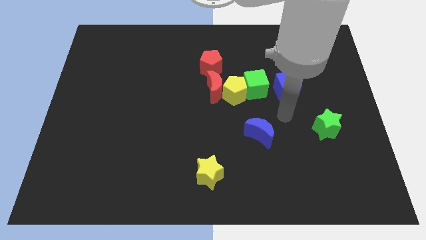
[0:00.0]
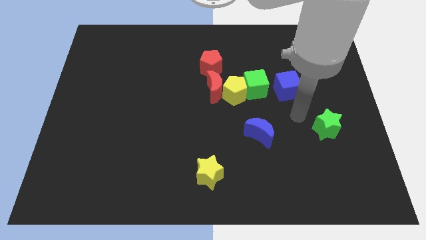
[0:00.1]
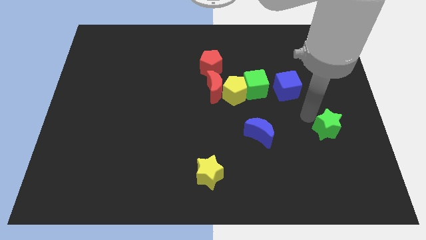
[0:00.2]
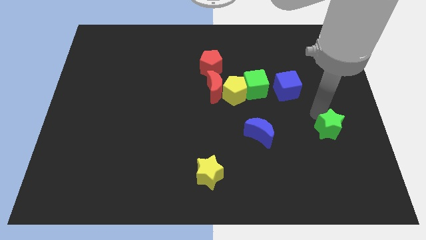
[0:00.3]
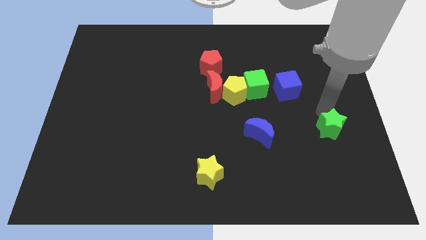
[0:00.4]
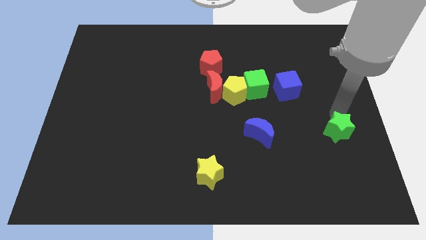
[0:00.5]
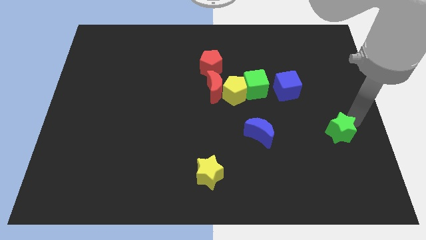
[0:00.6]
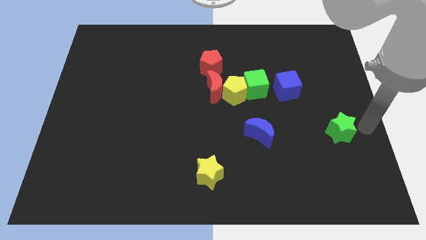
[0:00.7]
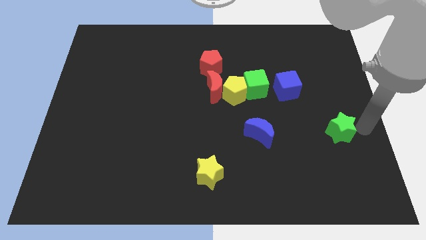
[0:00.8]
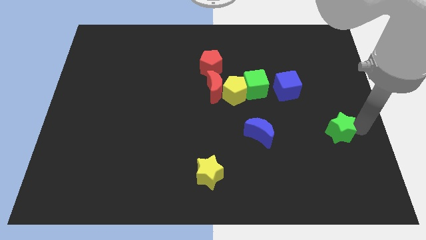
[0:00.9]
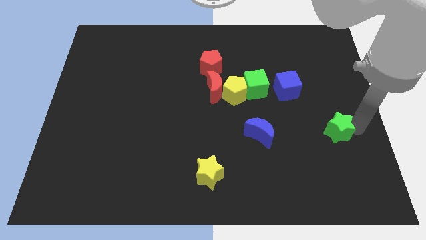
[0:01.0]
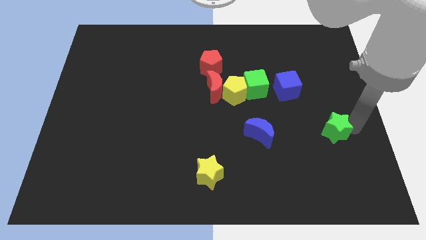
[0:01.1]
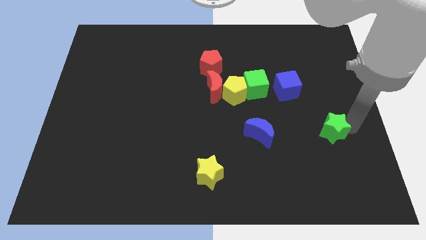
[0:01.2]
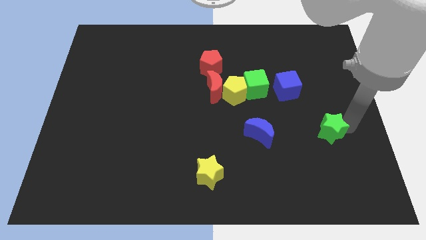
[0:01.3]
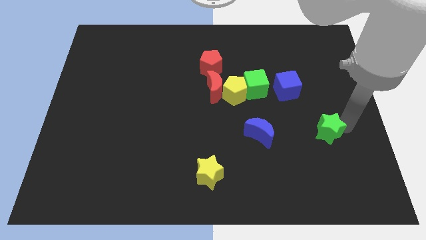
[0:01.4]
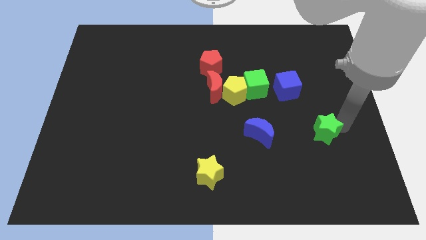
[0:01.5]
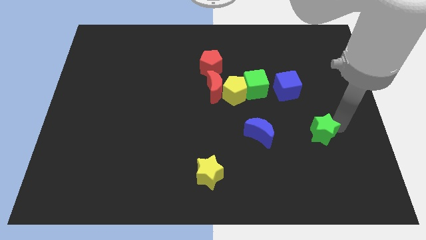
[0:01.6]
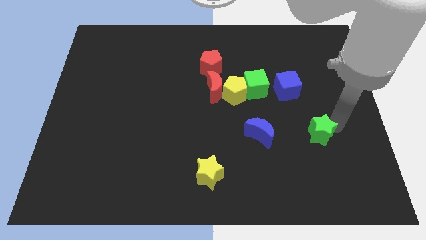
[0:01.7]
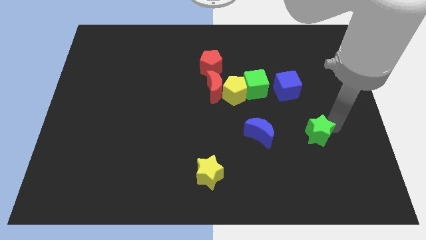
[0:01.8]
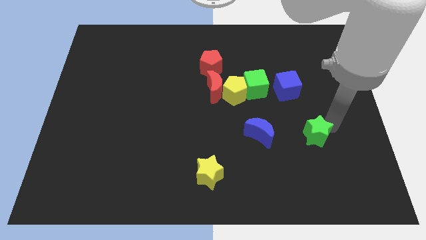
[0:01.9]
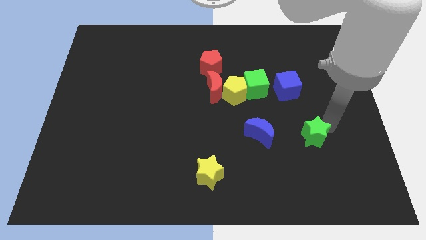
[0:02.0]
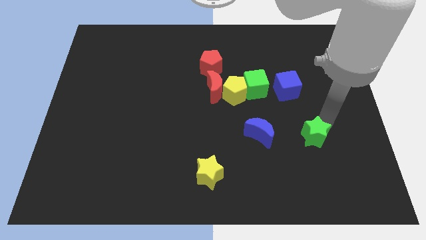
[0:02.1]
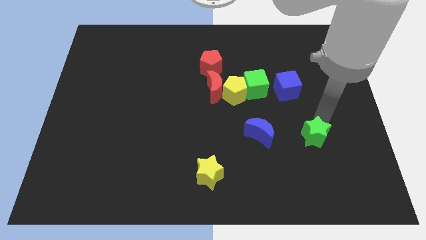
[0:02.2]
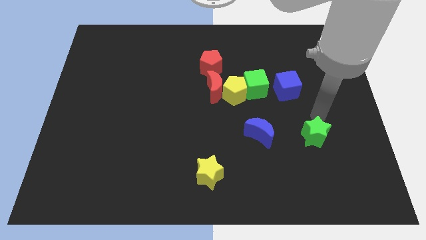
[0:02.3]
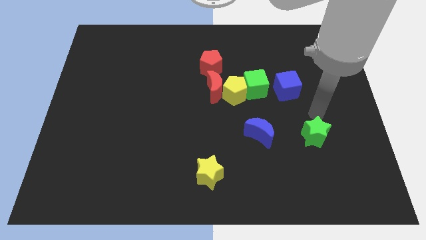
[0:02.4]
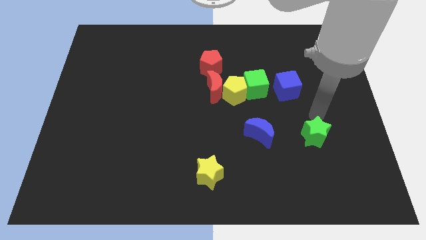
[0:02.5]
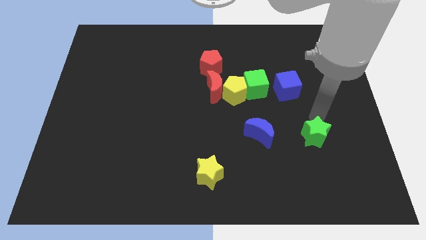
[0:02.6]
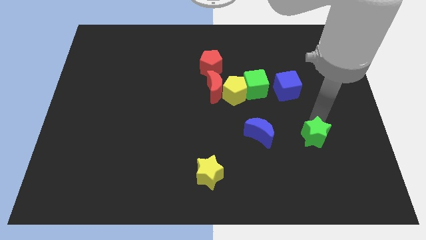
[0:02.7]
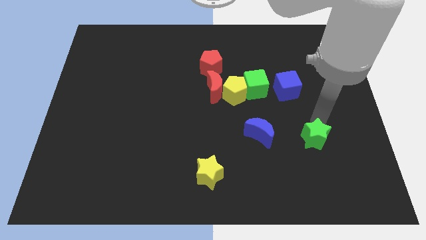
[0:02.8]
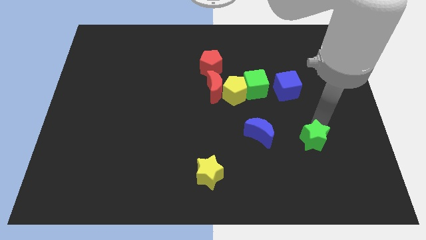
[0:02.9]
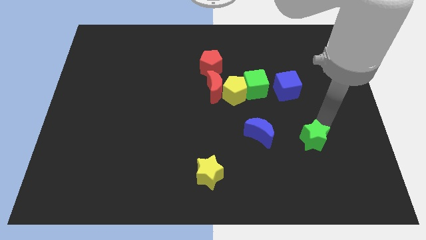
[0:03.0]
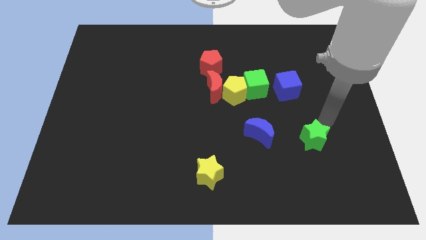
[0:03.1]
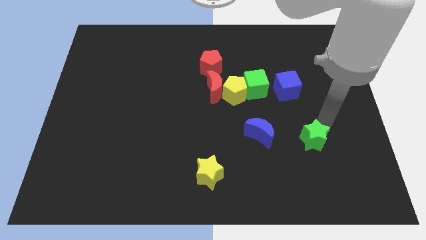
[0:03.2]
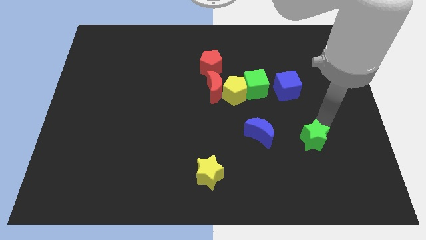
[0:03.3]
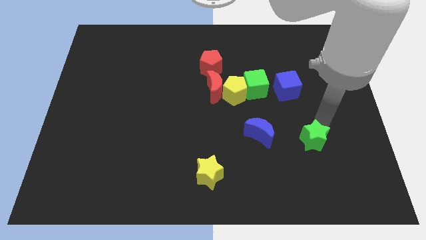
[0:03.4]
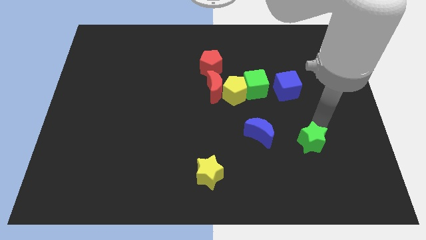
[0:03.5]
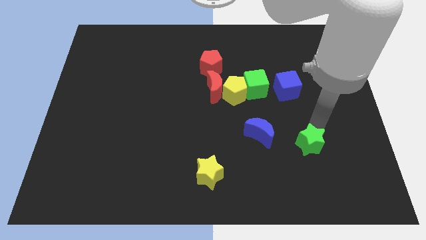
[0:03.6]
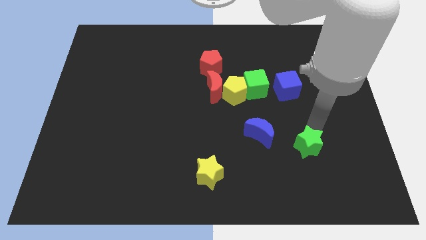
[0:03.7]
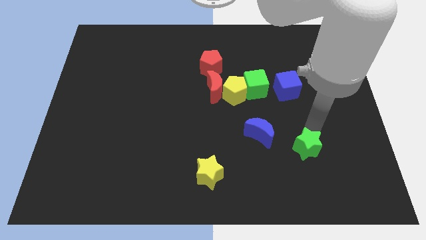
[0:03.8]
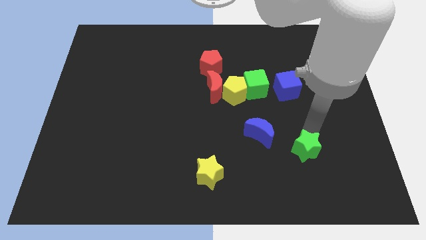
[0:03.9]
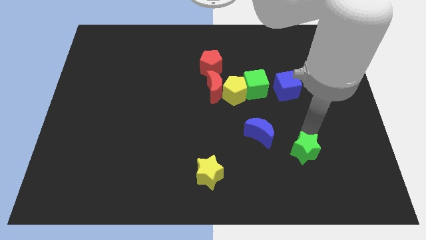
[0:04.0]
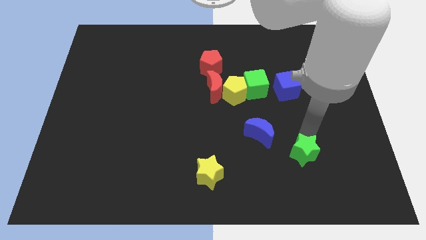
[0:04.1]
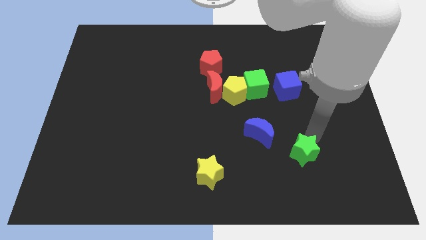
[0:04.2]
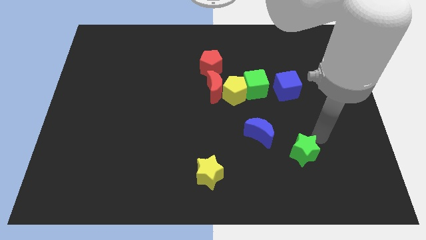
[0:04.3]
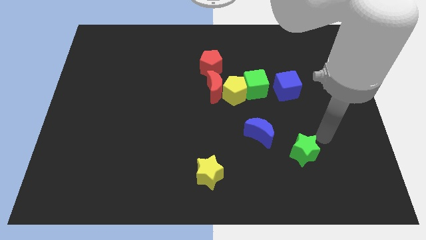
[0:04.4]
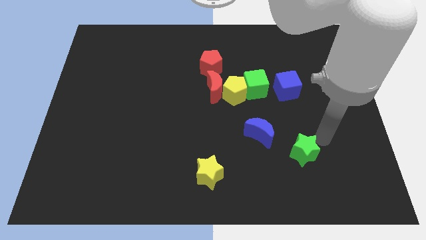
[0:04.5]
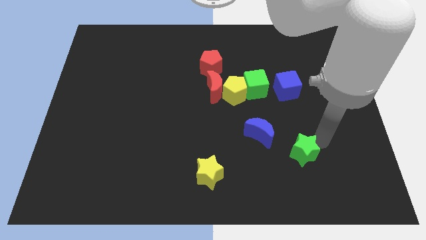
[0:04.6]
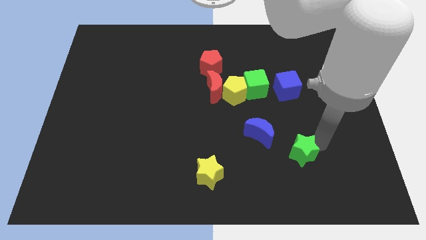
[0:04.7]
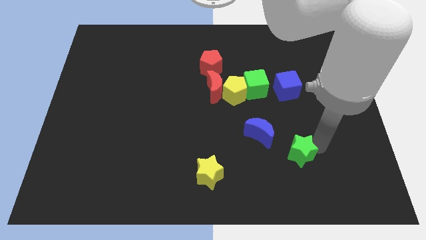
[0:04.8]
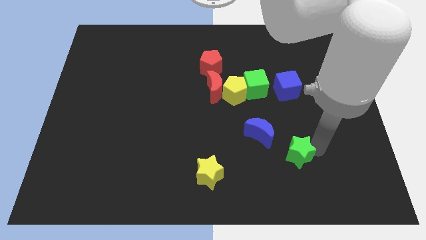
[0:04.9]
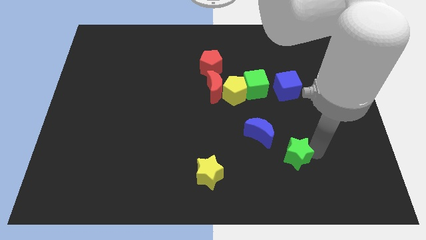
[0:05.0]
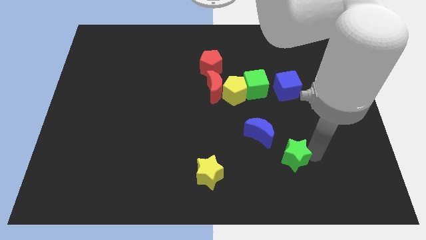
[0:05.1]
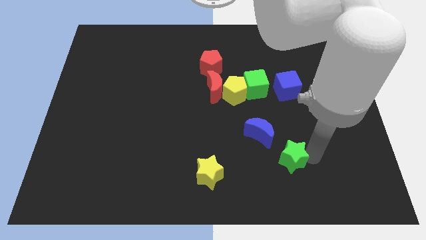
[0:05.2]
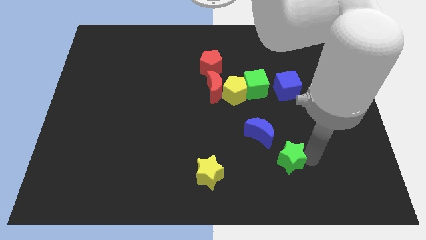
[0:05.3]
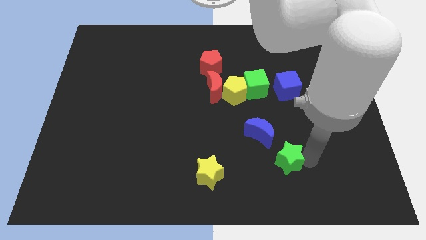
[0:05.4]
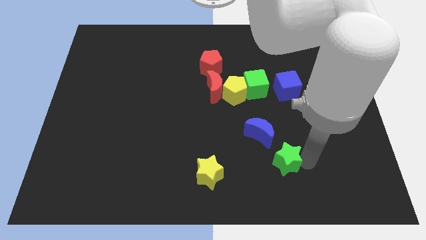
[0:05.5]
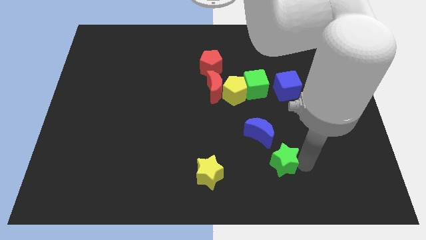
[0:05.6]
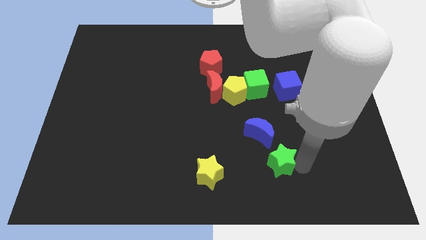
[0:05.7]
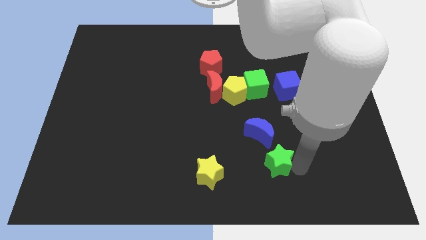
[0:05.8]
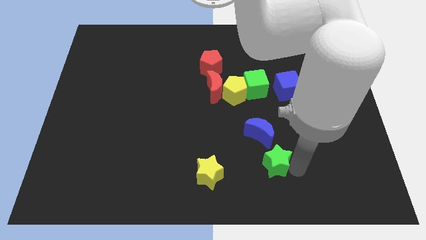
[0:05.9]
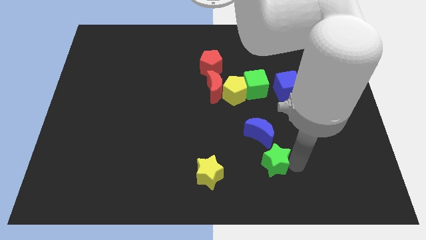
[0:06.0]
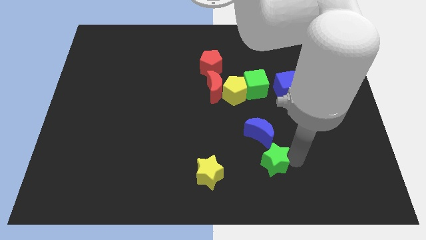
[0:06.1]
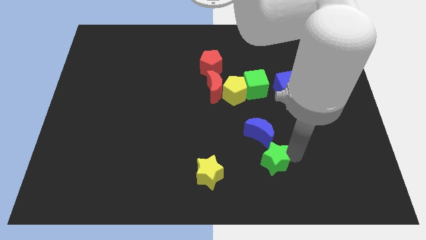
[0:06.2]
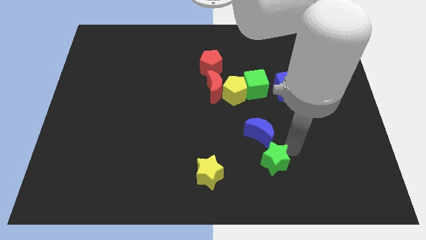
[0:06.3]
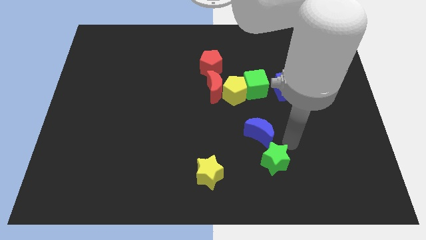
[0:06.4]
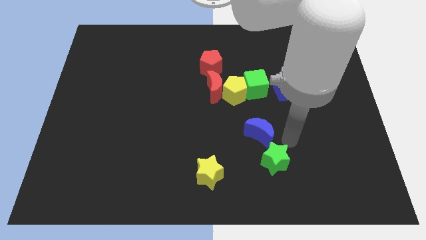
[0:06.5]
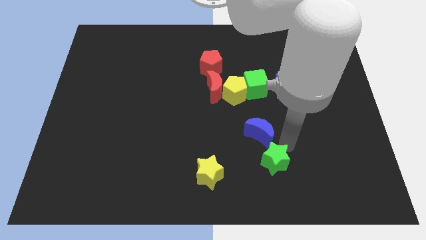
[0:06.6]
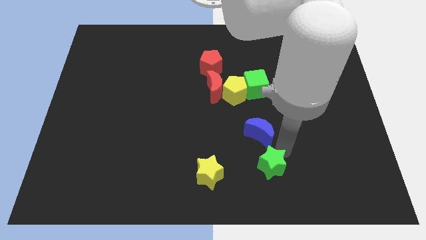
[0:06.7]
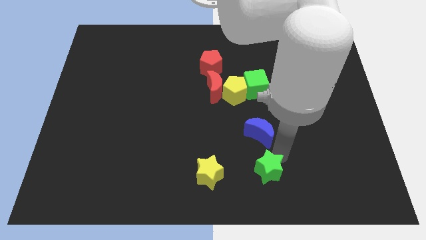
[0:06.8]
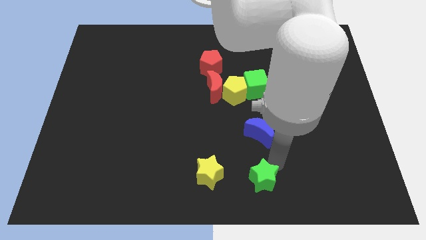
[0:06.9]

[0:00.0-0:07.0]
slide the green star to the bottom side
